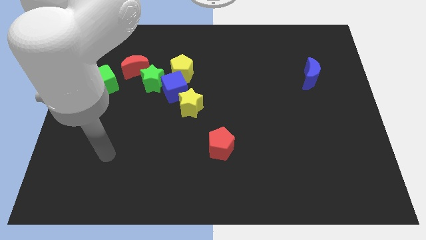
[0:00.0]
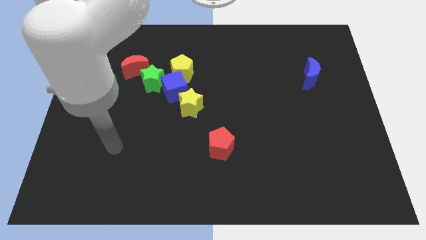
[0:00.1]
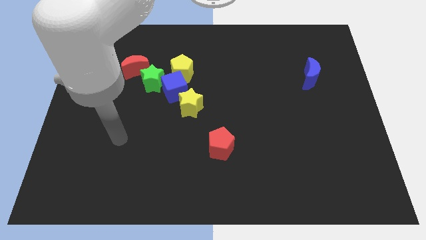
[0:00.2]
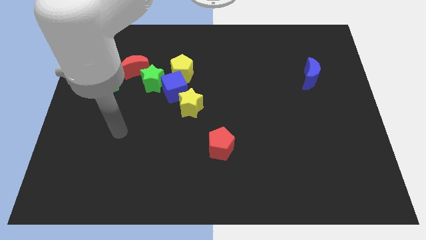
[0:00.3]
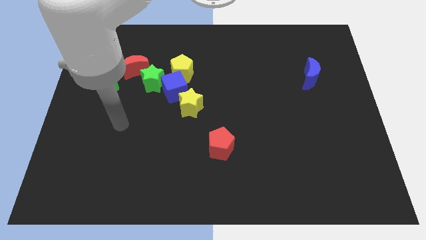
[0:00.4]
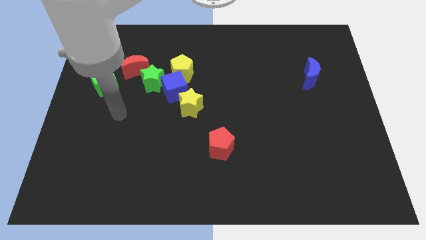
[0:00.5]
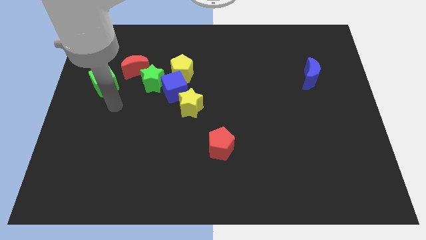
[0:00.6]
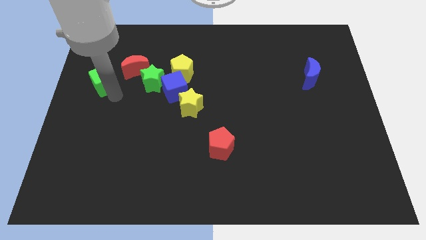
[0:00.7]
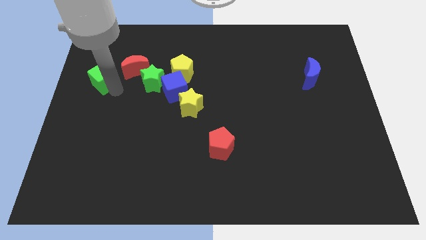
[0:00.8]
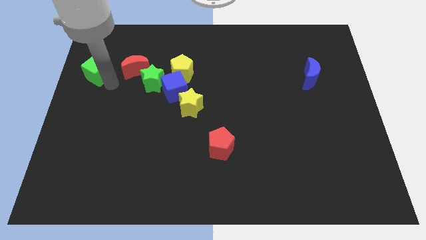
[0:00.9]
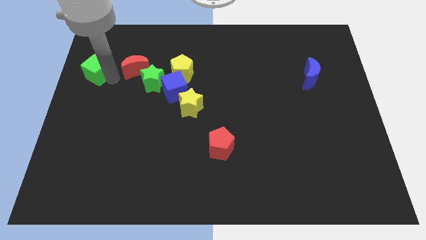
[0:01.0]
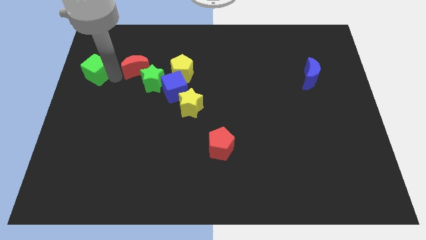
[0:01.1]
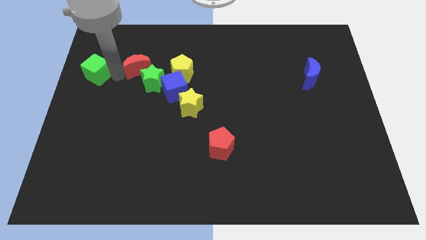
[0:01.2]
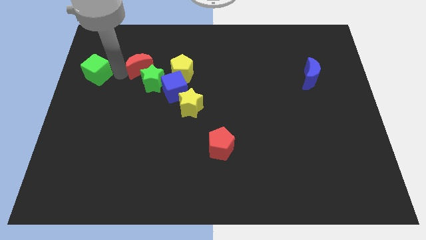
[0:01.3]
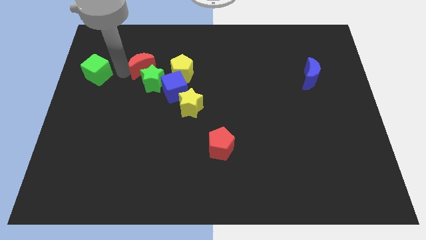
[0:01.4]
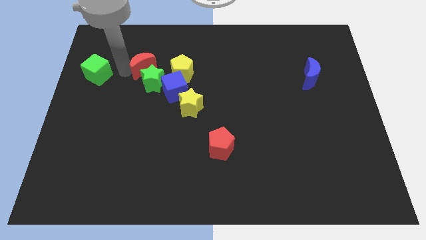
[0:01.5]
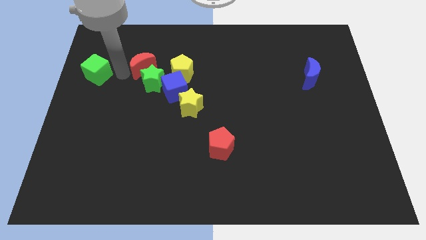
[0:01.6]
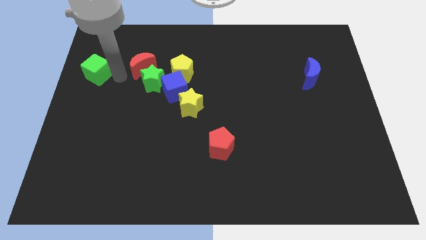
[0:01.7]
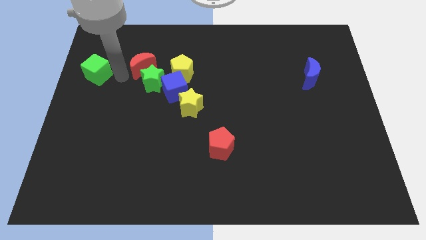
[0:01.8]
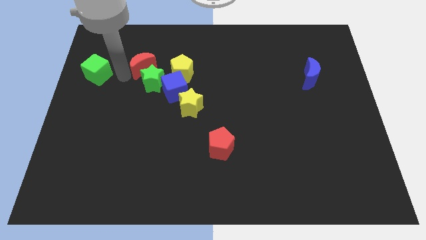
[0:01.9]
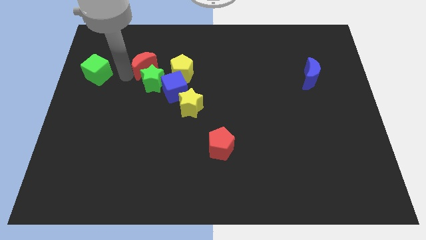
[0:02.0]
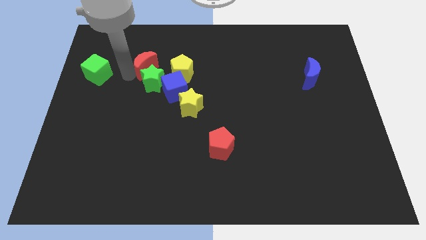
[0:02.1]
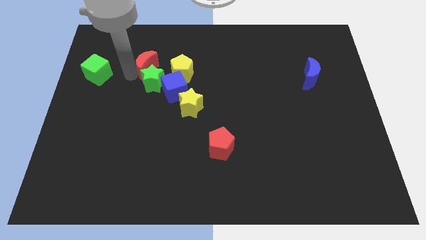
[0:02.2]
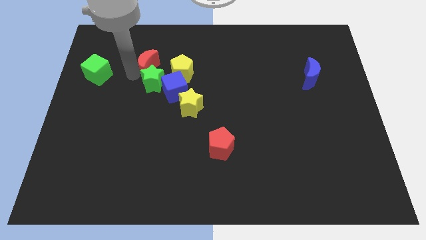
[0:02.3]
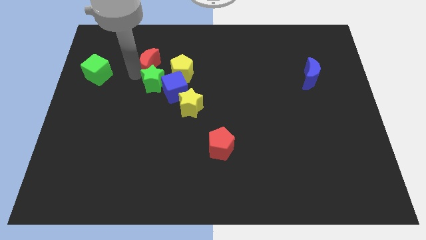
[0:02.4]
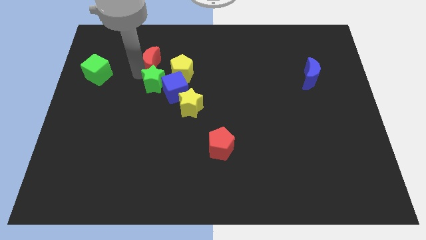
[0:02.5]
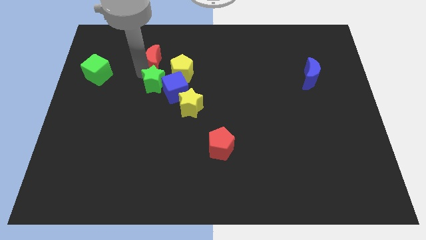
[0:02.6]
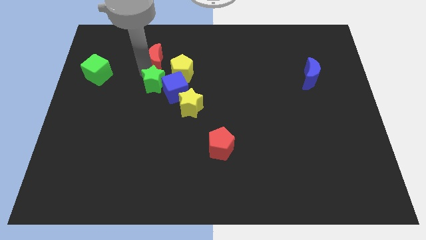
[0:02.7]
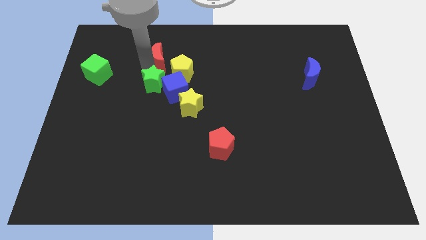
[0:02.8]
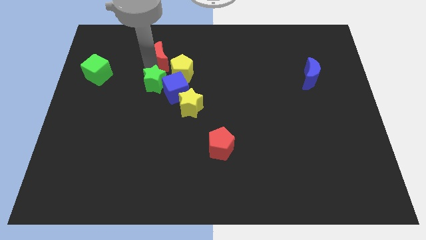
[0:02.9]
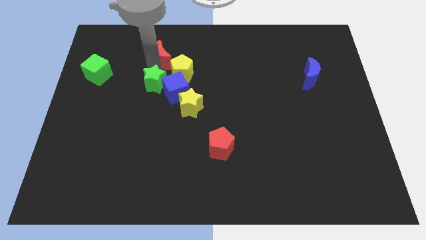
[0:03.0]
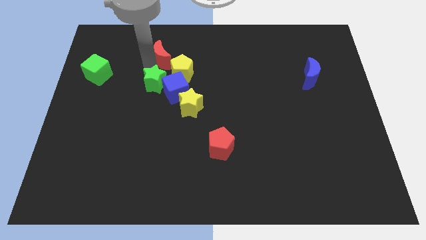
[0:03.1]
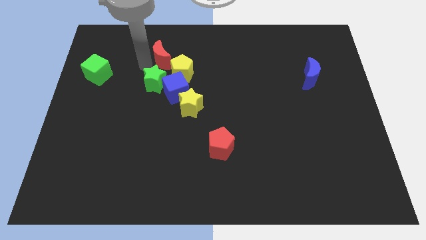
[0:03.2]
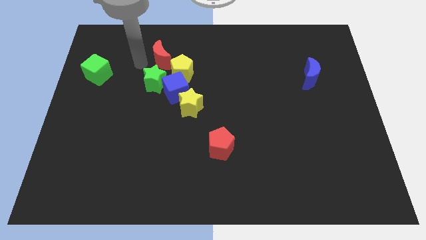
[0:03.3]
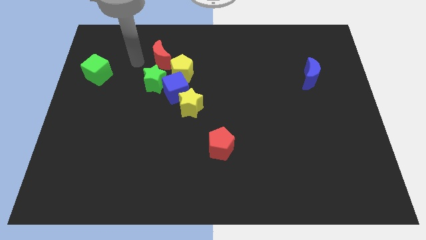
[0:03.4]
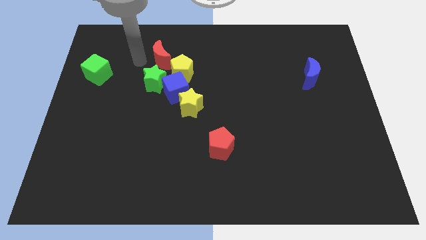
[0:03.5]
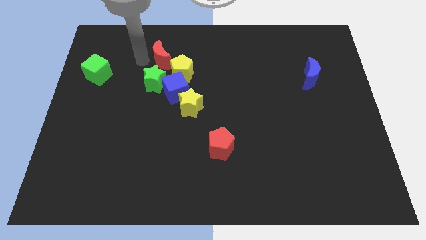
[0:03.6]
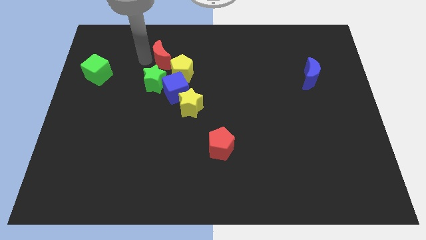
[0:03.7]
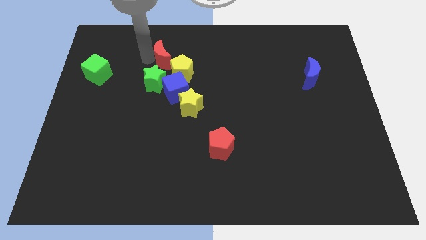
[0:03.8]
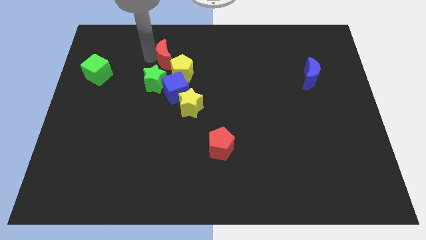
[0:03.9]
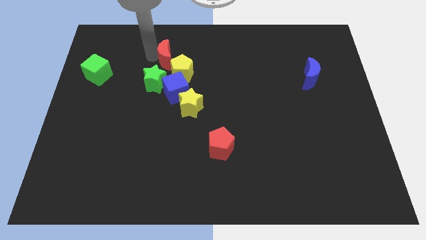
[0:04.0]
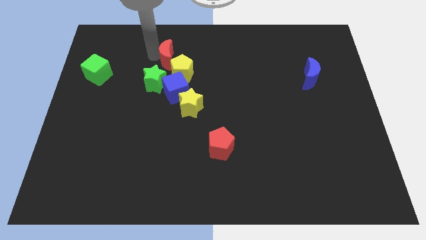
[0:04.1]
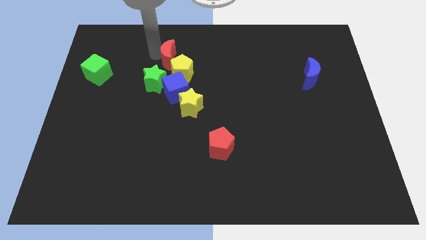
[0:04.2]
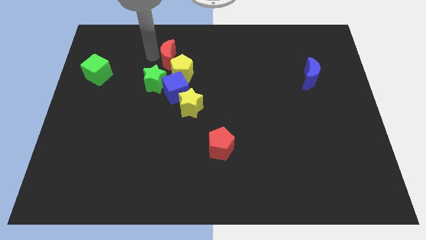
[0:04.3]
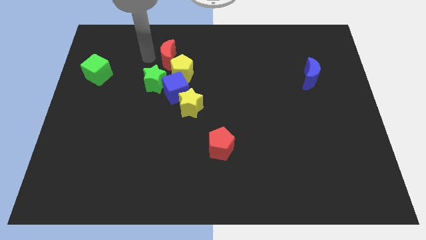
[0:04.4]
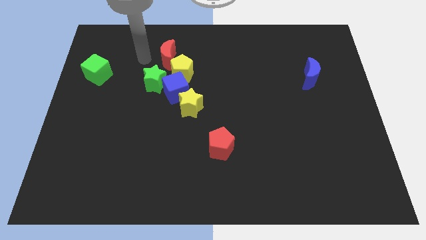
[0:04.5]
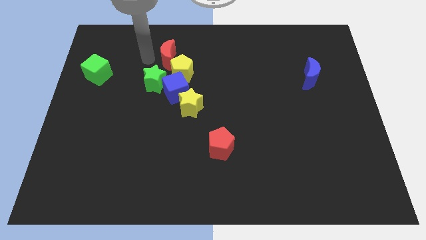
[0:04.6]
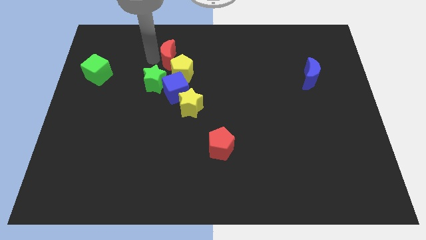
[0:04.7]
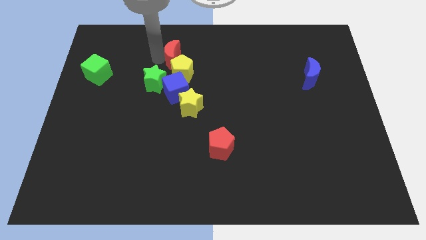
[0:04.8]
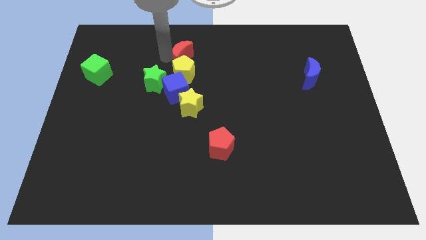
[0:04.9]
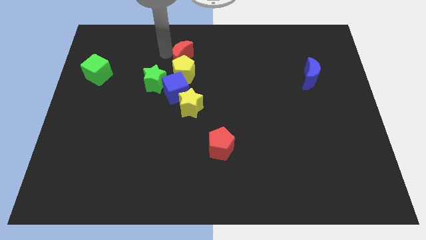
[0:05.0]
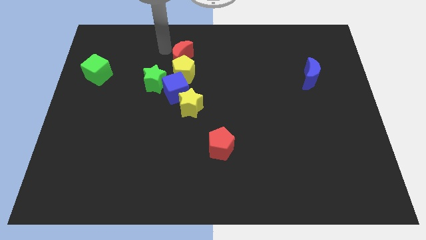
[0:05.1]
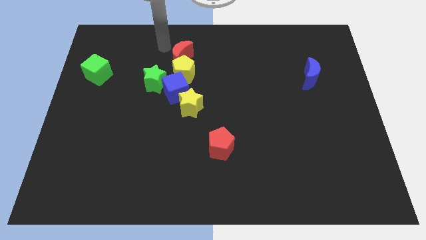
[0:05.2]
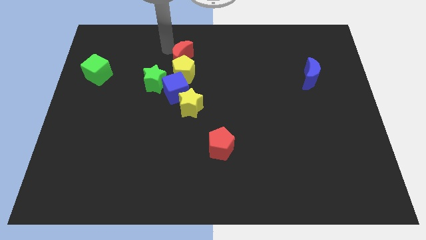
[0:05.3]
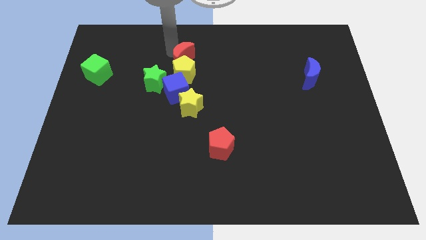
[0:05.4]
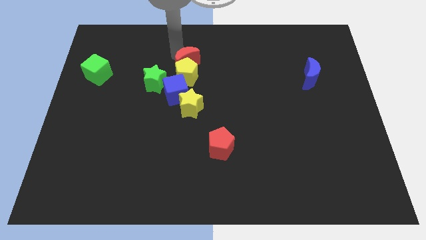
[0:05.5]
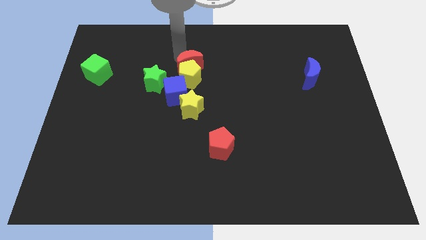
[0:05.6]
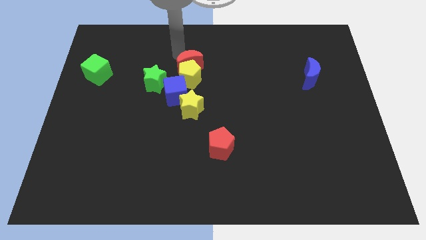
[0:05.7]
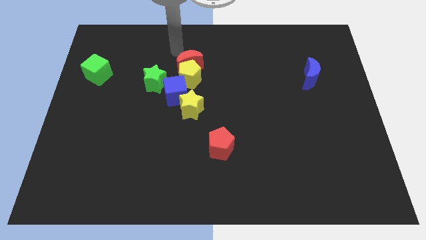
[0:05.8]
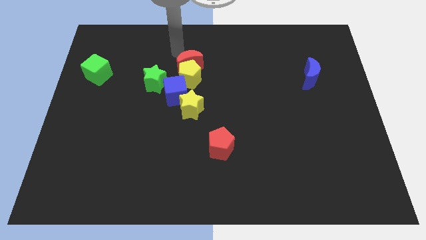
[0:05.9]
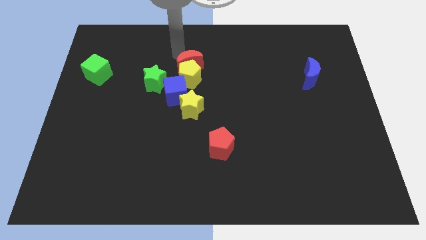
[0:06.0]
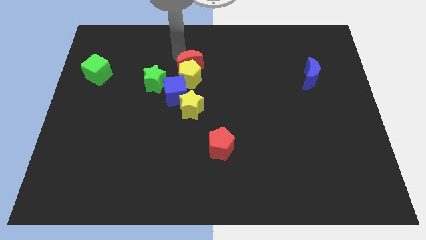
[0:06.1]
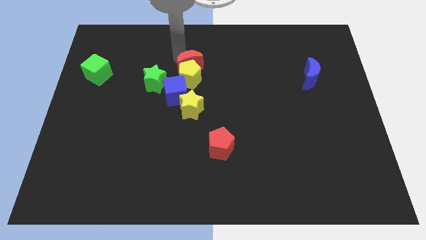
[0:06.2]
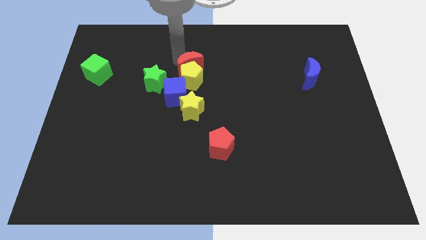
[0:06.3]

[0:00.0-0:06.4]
slide the red moon to the center
